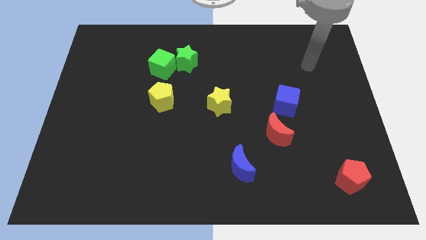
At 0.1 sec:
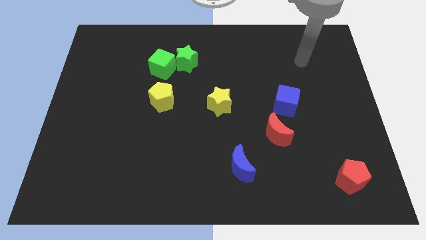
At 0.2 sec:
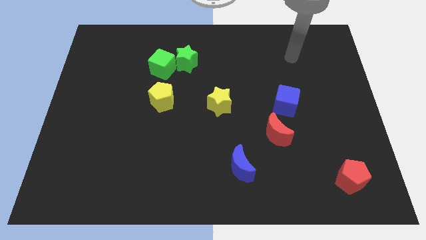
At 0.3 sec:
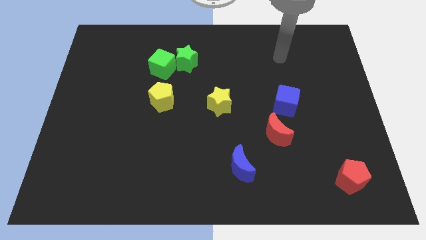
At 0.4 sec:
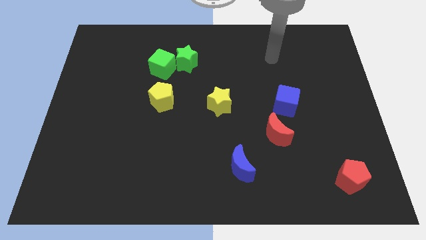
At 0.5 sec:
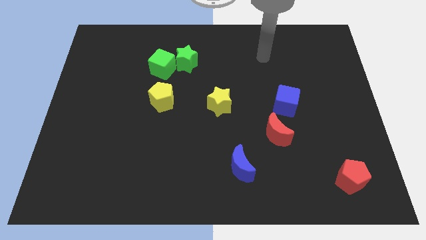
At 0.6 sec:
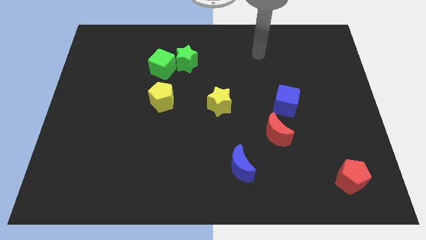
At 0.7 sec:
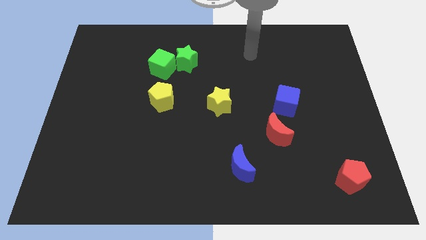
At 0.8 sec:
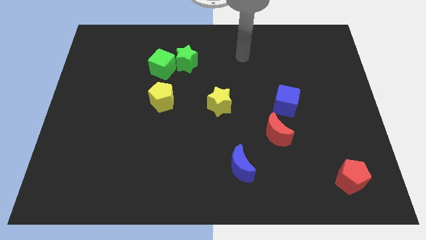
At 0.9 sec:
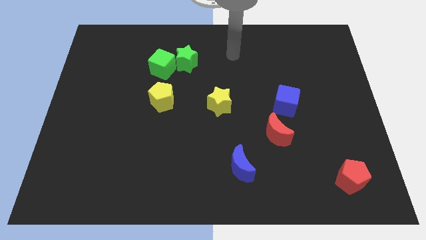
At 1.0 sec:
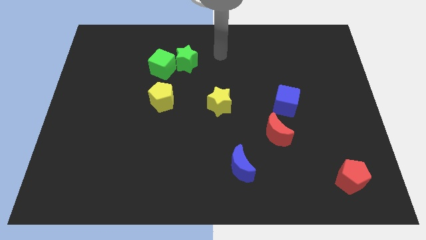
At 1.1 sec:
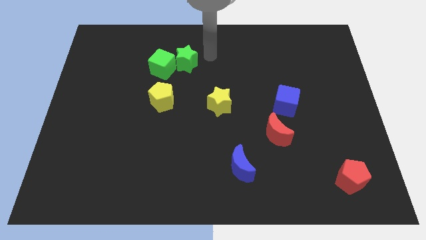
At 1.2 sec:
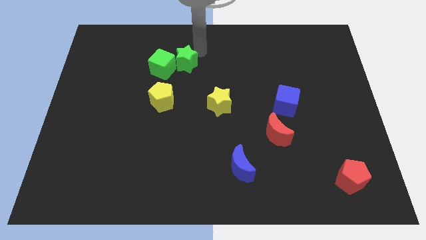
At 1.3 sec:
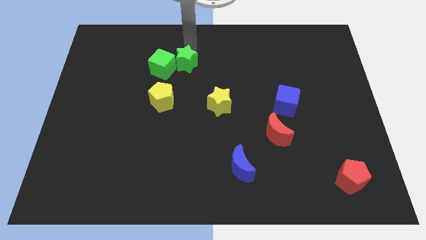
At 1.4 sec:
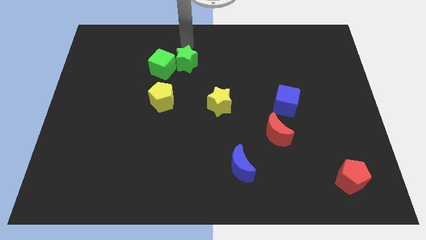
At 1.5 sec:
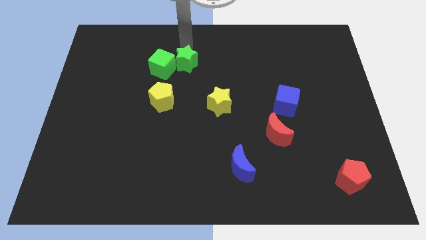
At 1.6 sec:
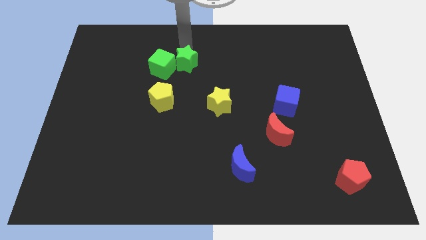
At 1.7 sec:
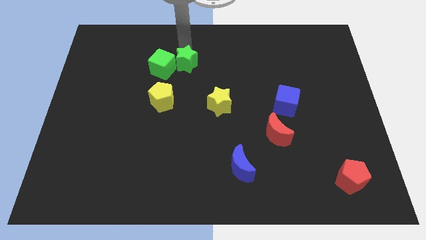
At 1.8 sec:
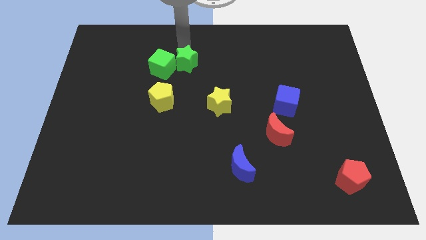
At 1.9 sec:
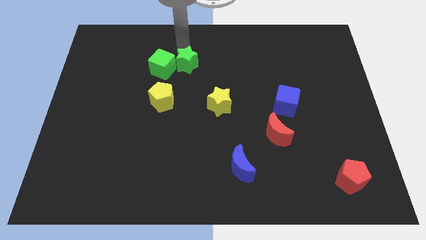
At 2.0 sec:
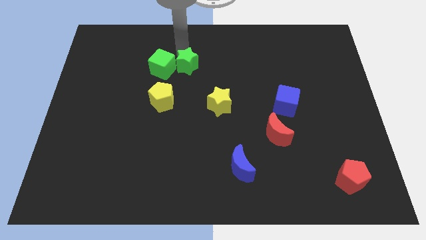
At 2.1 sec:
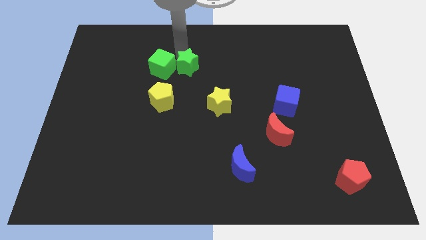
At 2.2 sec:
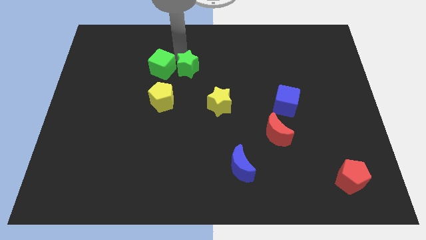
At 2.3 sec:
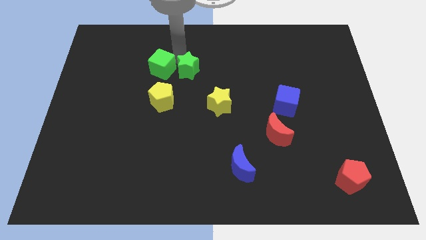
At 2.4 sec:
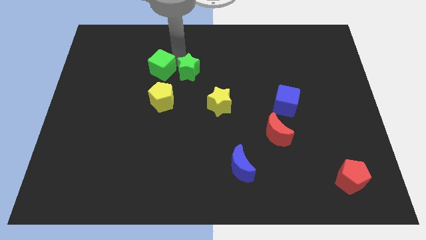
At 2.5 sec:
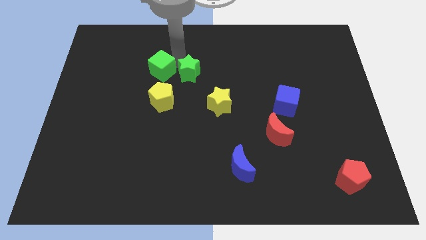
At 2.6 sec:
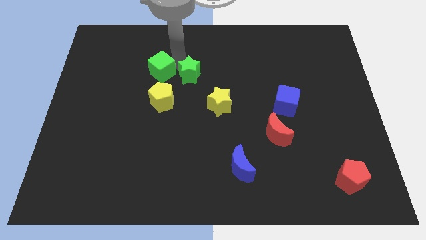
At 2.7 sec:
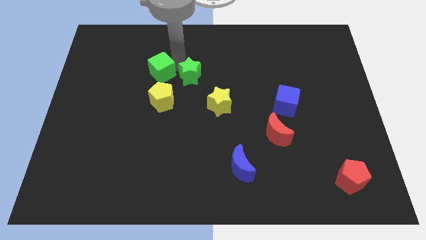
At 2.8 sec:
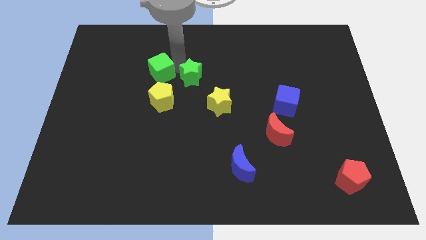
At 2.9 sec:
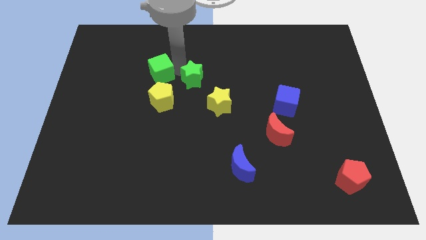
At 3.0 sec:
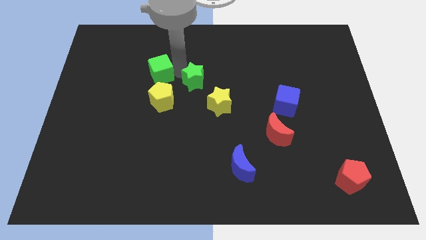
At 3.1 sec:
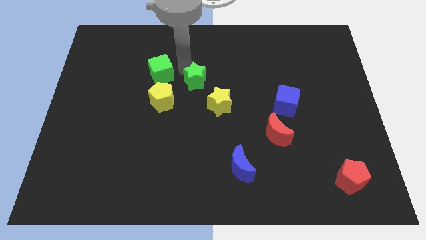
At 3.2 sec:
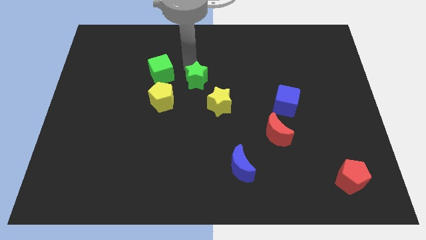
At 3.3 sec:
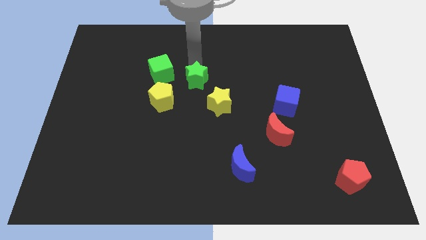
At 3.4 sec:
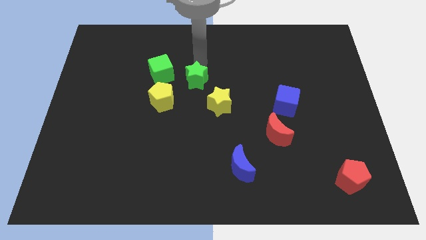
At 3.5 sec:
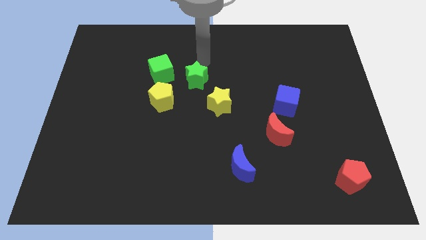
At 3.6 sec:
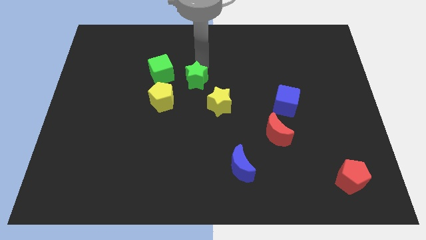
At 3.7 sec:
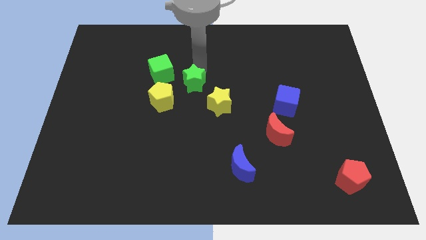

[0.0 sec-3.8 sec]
slide the green star somewhat downwards

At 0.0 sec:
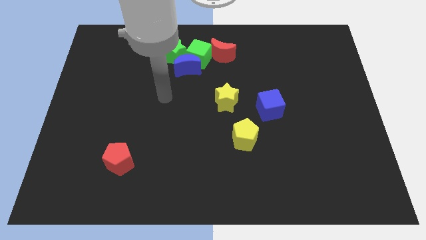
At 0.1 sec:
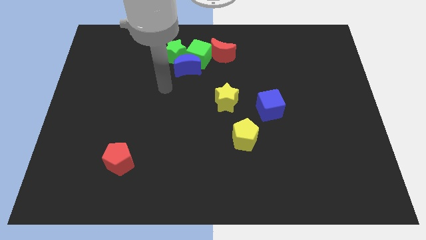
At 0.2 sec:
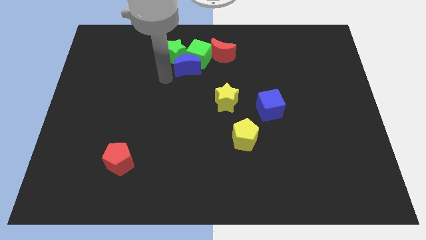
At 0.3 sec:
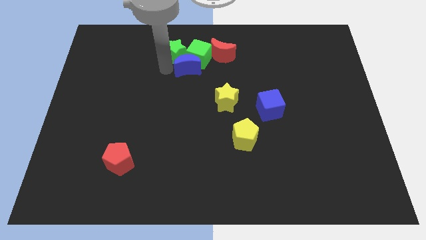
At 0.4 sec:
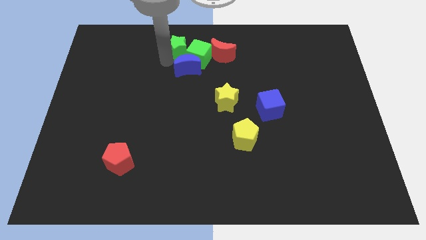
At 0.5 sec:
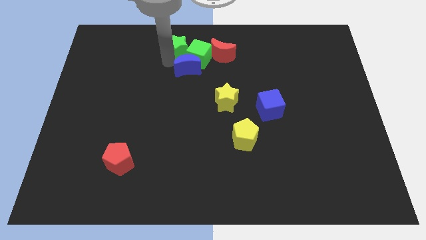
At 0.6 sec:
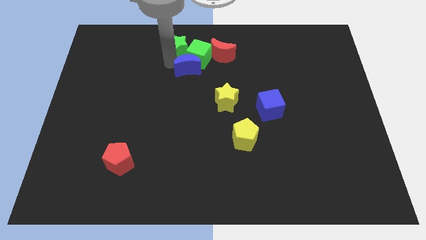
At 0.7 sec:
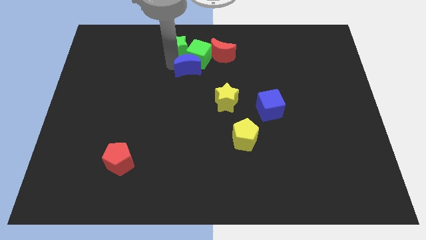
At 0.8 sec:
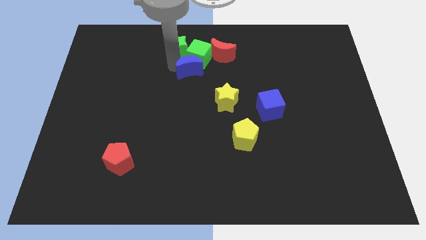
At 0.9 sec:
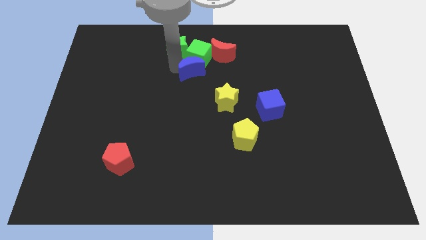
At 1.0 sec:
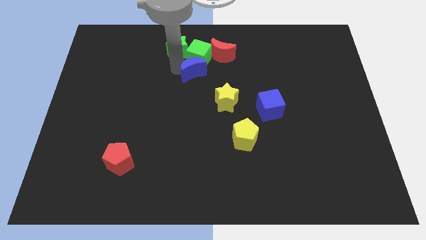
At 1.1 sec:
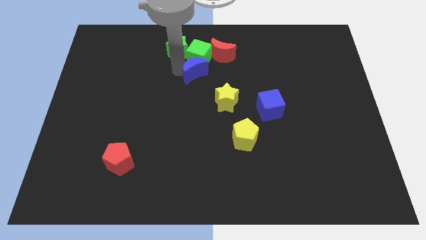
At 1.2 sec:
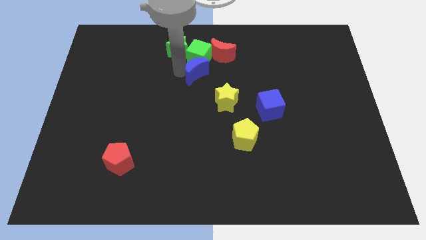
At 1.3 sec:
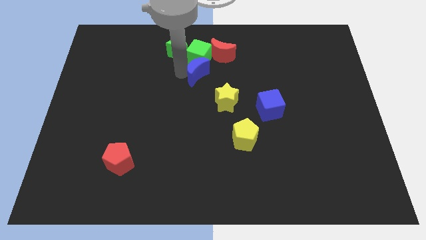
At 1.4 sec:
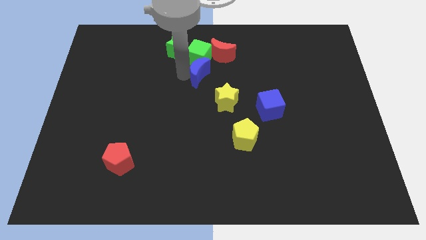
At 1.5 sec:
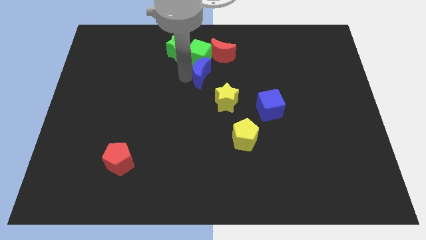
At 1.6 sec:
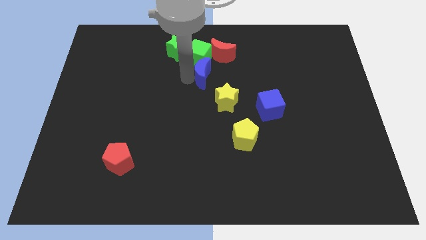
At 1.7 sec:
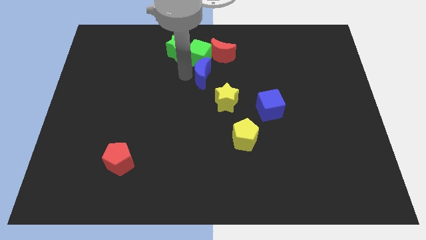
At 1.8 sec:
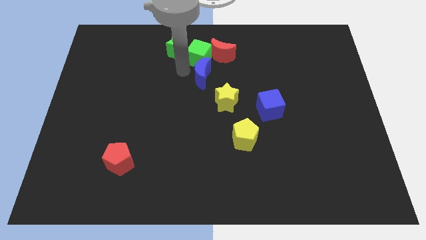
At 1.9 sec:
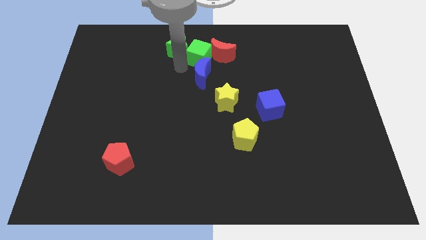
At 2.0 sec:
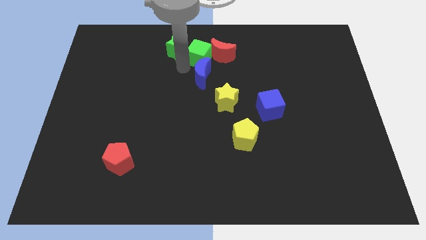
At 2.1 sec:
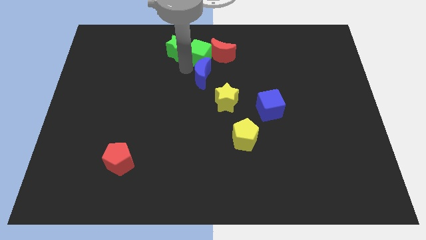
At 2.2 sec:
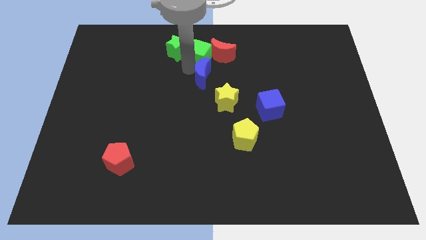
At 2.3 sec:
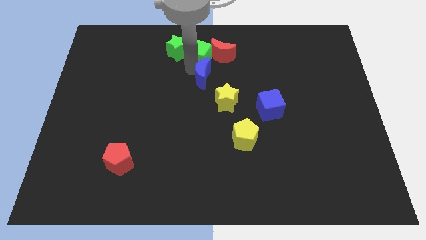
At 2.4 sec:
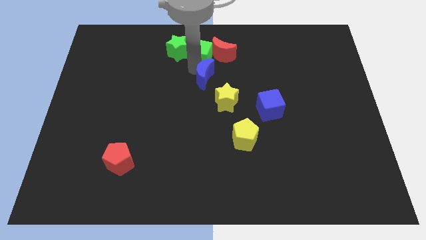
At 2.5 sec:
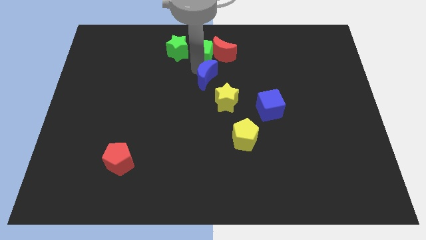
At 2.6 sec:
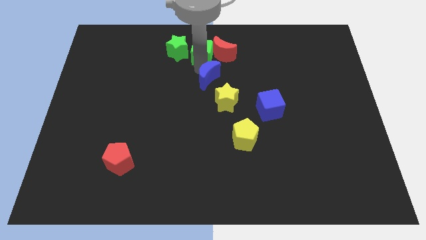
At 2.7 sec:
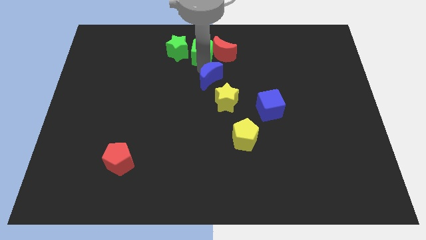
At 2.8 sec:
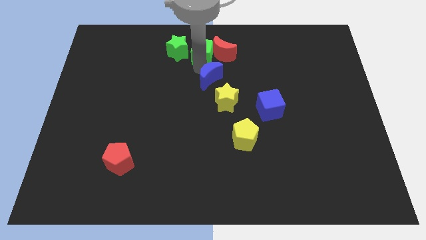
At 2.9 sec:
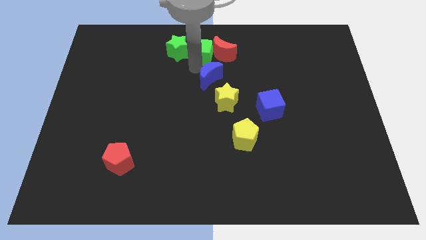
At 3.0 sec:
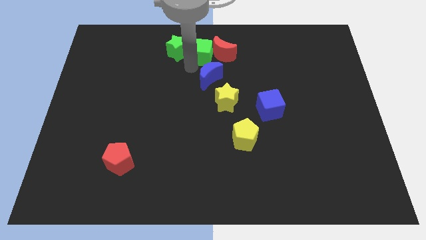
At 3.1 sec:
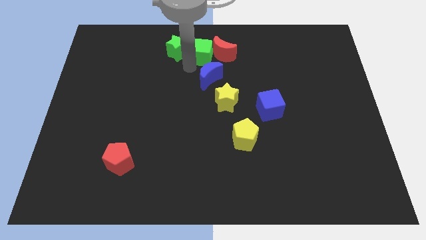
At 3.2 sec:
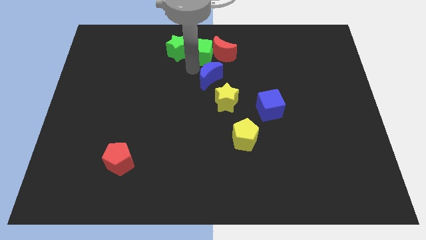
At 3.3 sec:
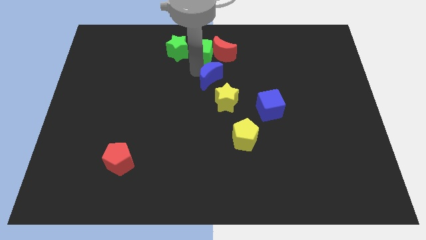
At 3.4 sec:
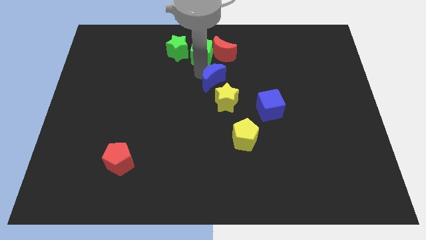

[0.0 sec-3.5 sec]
push the blue moon slightly down and then right

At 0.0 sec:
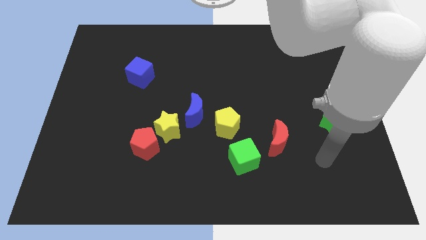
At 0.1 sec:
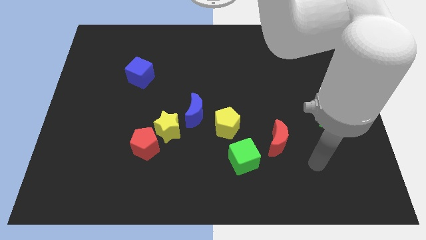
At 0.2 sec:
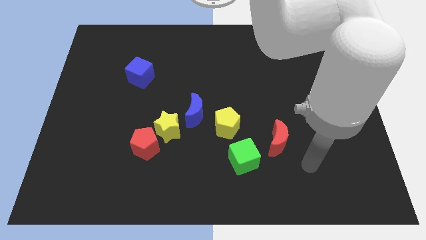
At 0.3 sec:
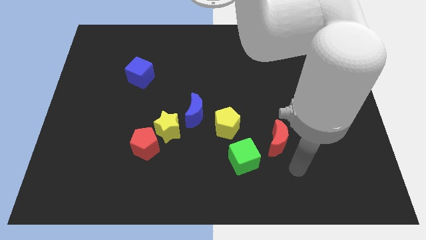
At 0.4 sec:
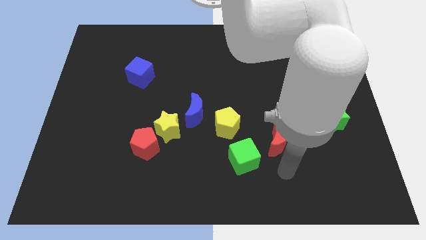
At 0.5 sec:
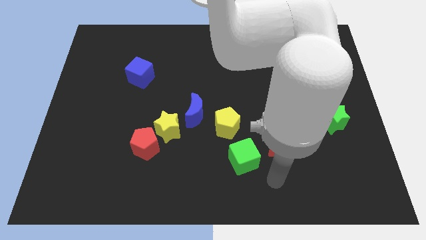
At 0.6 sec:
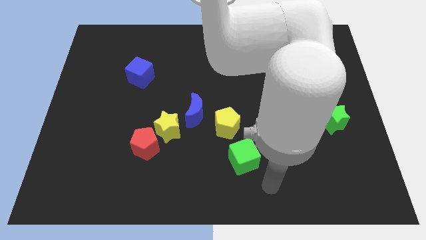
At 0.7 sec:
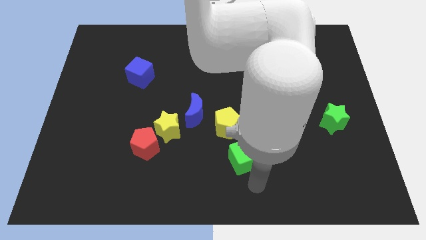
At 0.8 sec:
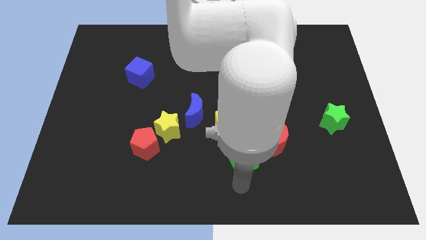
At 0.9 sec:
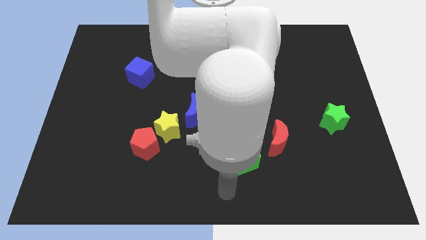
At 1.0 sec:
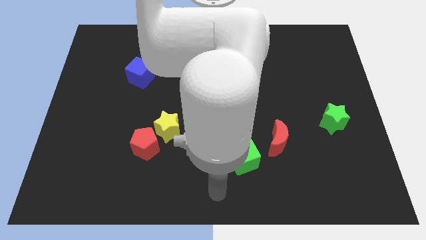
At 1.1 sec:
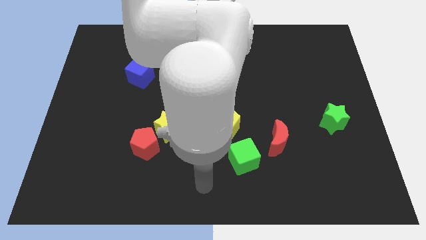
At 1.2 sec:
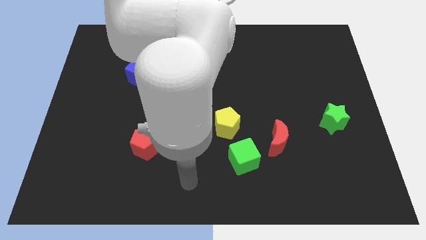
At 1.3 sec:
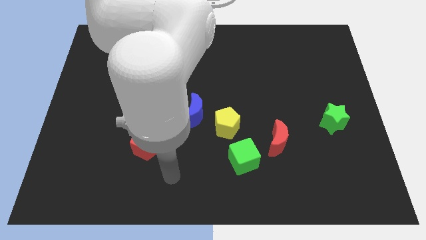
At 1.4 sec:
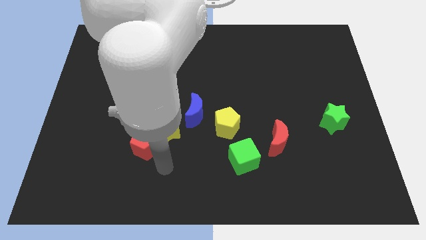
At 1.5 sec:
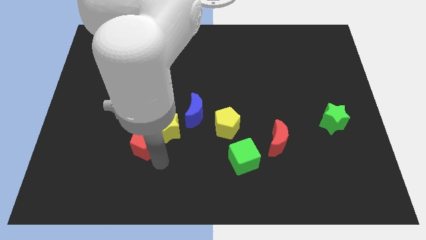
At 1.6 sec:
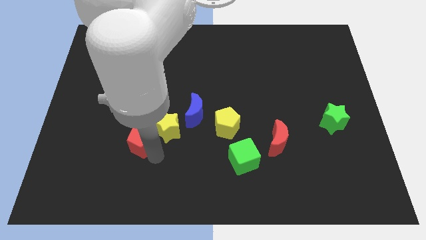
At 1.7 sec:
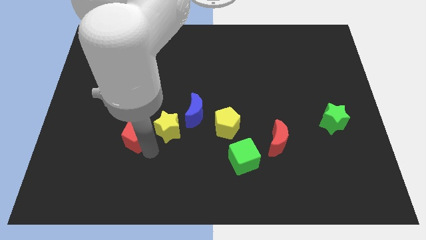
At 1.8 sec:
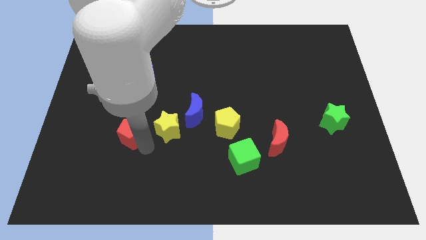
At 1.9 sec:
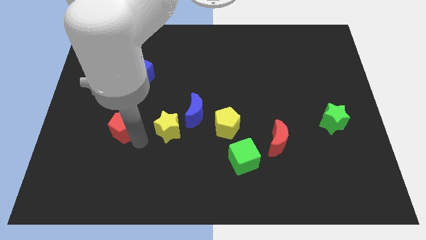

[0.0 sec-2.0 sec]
push the red pentagon upwards and to the left diagonally somewhat
